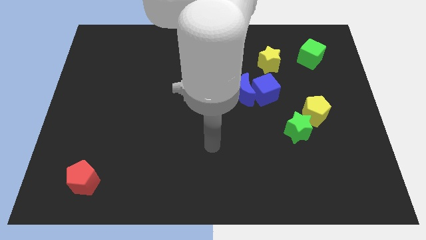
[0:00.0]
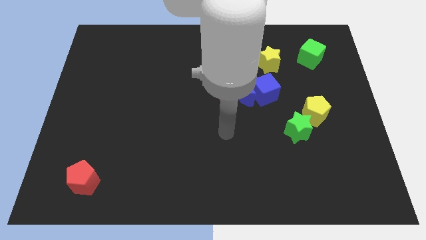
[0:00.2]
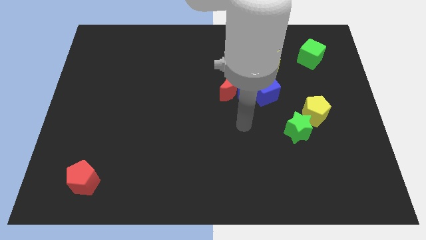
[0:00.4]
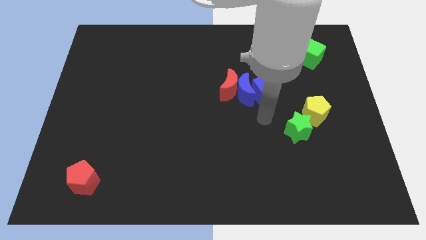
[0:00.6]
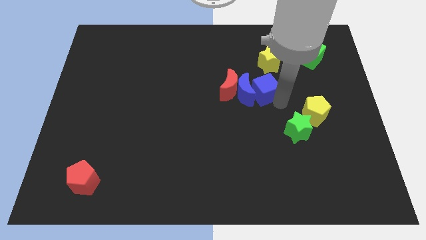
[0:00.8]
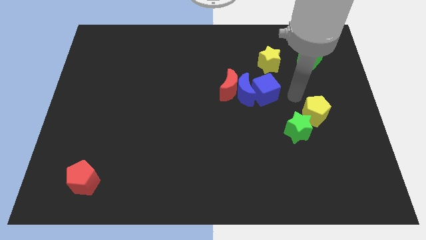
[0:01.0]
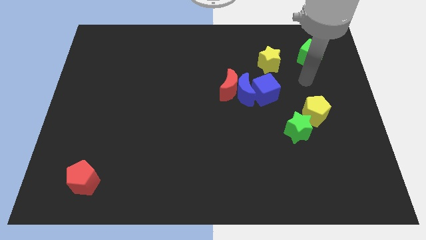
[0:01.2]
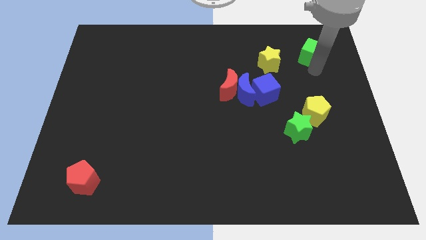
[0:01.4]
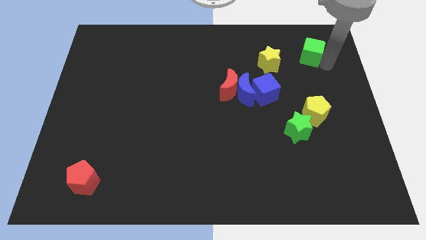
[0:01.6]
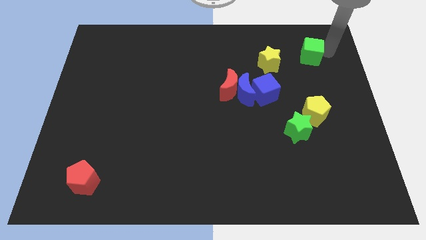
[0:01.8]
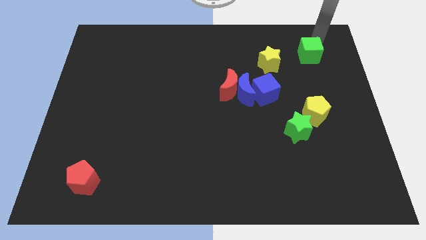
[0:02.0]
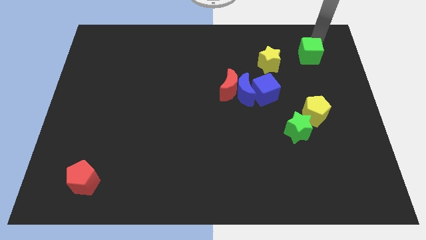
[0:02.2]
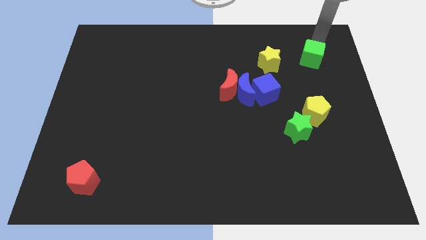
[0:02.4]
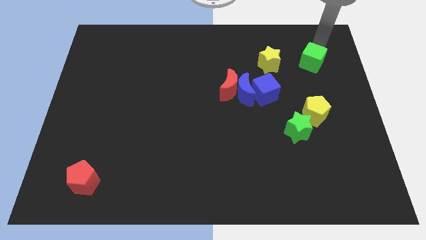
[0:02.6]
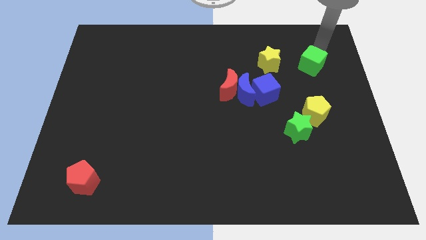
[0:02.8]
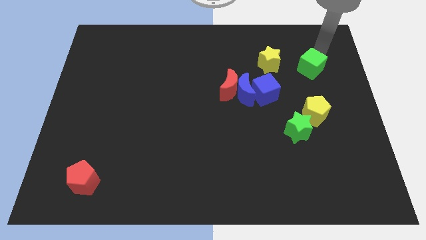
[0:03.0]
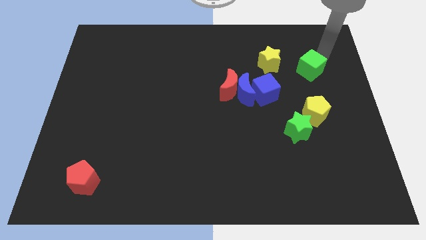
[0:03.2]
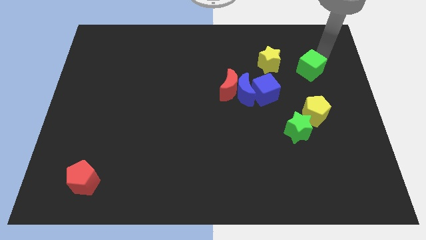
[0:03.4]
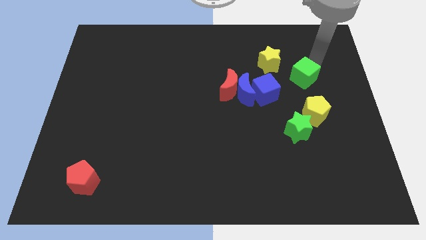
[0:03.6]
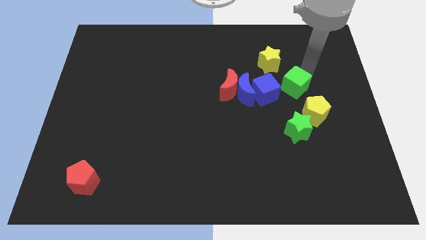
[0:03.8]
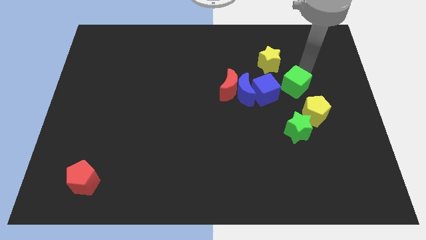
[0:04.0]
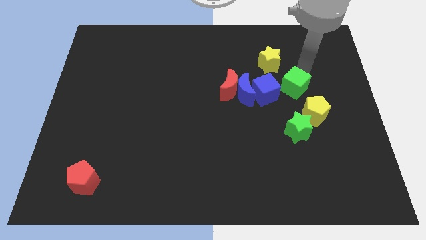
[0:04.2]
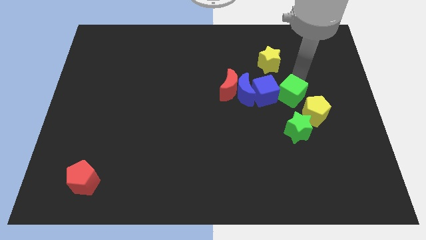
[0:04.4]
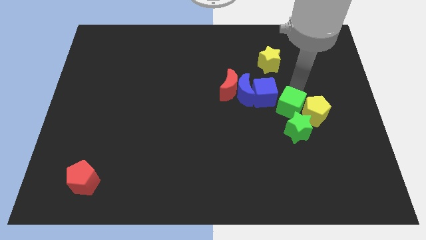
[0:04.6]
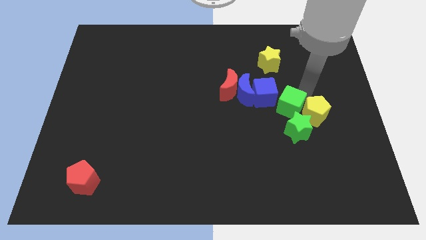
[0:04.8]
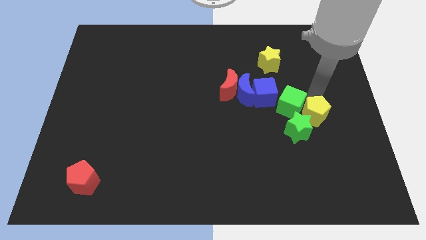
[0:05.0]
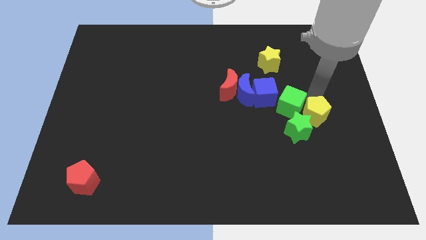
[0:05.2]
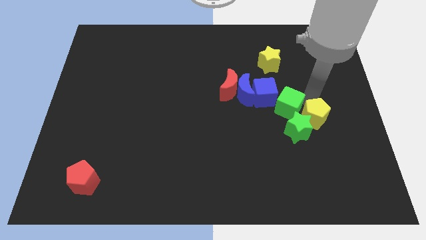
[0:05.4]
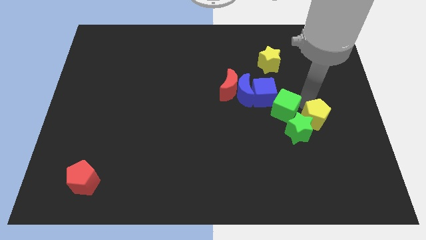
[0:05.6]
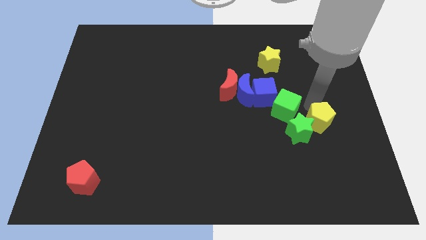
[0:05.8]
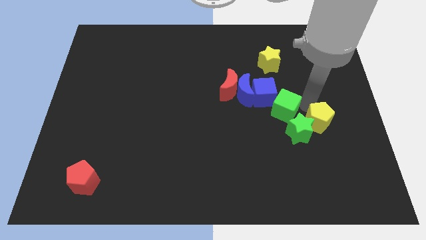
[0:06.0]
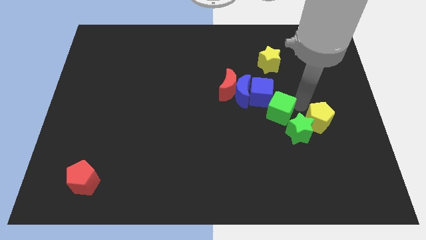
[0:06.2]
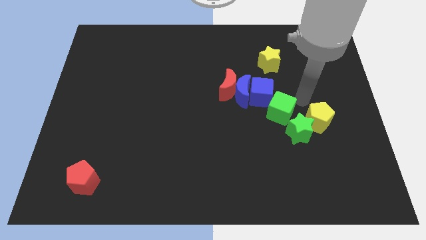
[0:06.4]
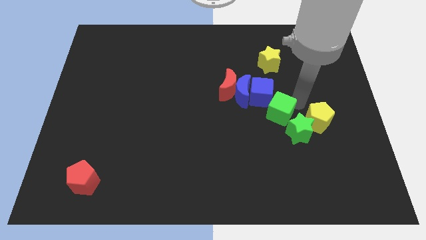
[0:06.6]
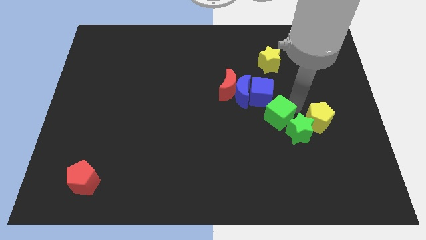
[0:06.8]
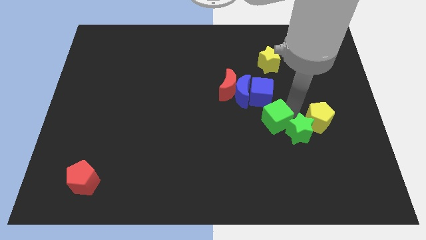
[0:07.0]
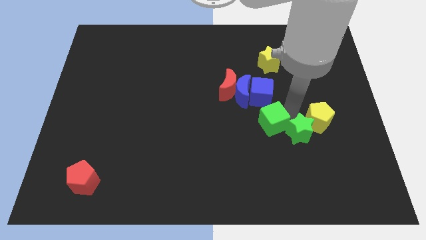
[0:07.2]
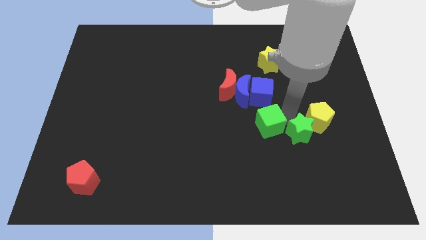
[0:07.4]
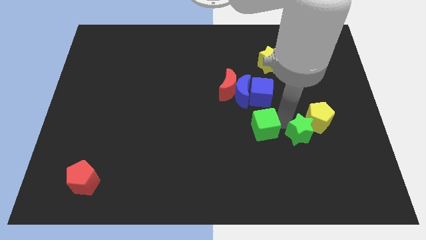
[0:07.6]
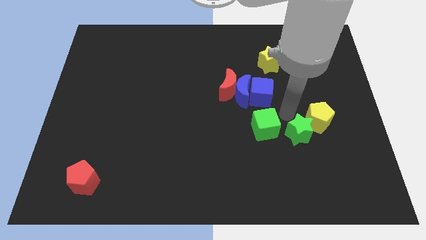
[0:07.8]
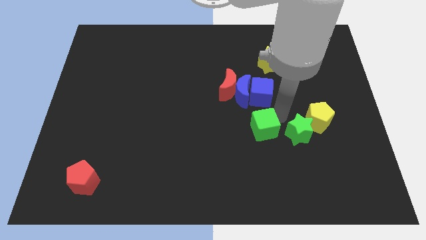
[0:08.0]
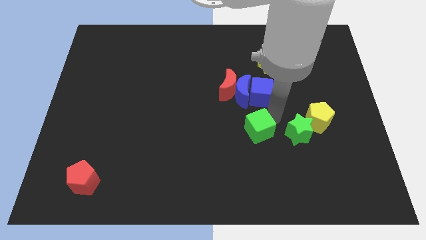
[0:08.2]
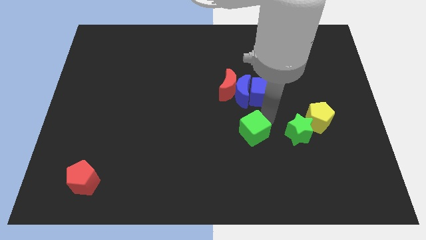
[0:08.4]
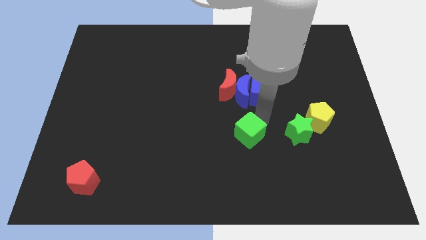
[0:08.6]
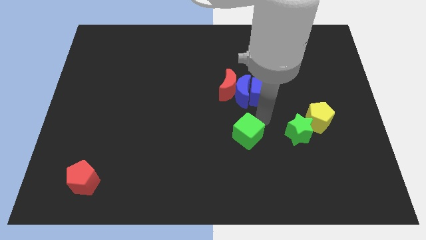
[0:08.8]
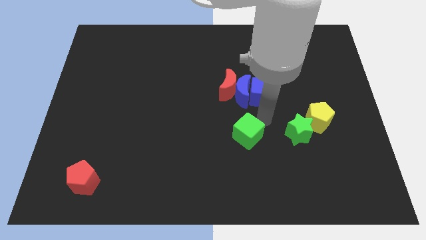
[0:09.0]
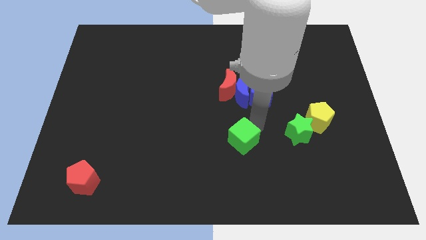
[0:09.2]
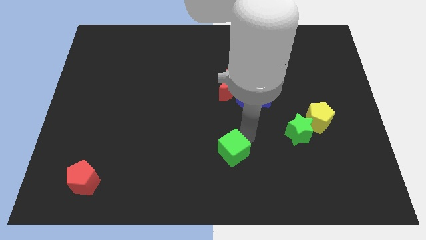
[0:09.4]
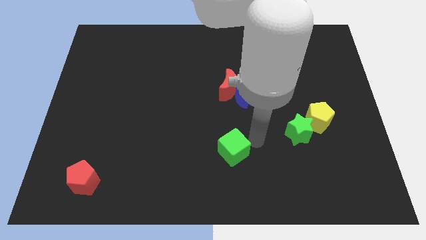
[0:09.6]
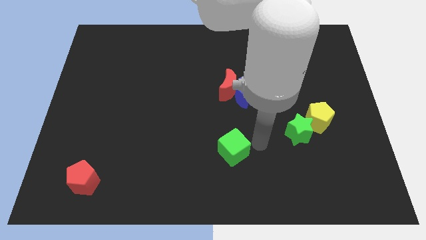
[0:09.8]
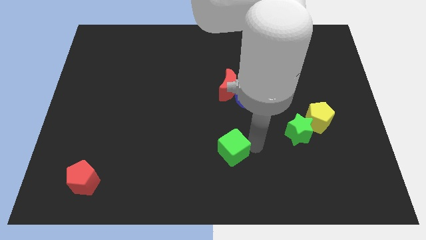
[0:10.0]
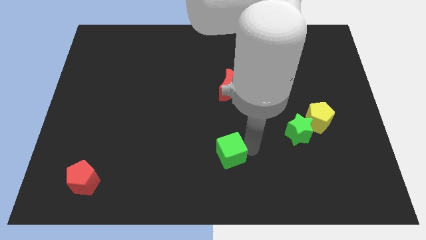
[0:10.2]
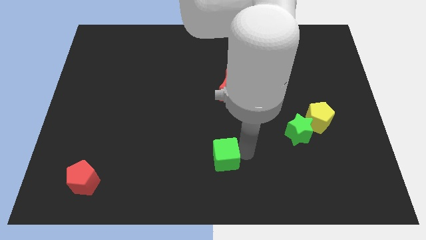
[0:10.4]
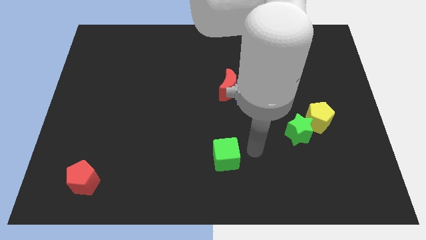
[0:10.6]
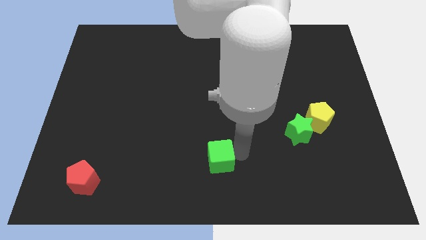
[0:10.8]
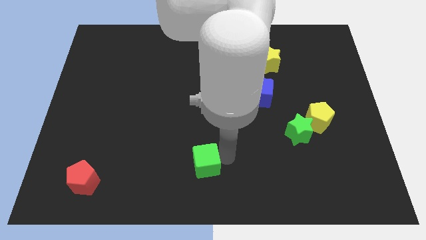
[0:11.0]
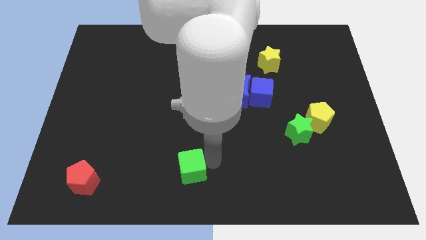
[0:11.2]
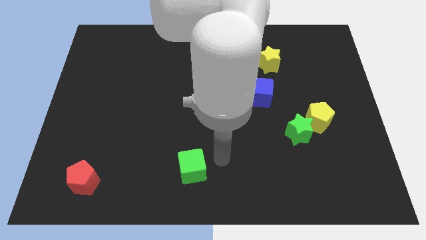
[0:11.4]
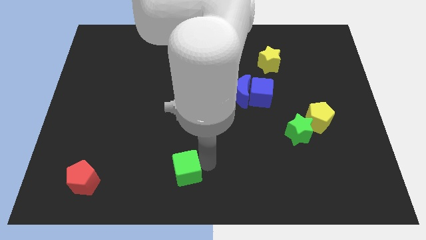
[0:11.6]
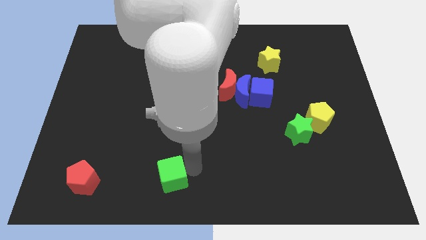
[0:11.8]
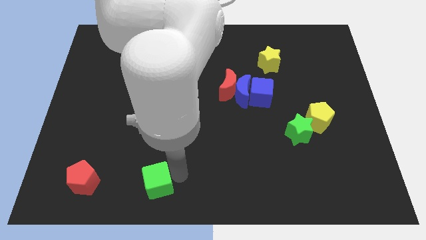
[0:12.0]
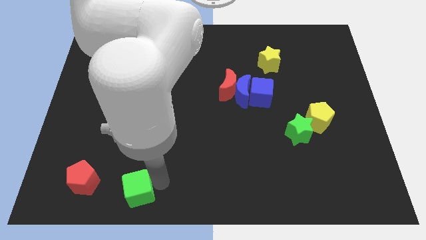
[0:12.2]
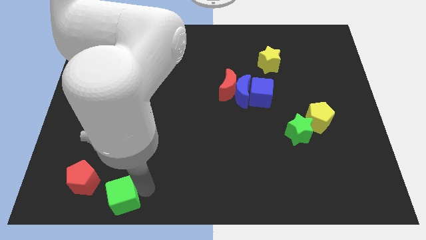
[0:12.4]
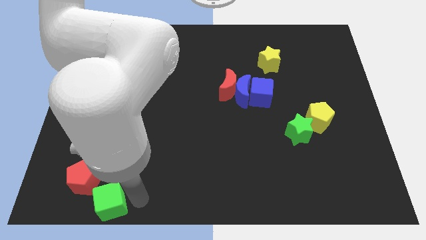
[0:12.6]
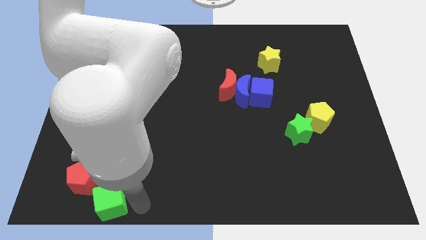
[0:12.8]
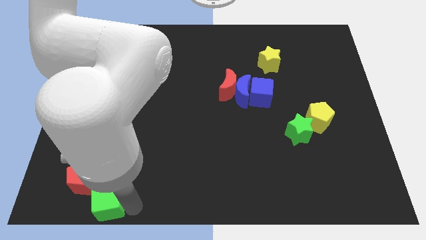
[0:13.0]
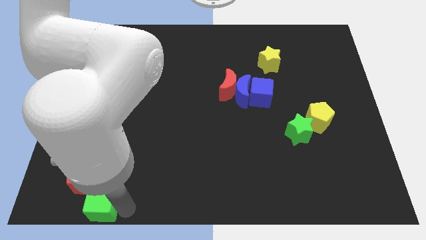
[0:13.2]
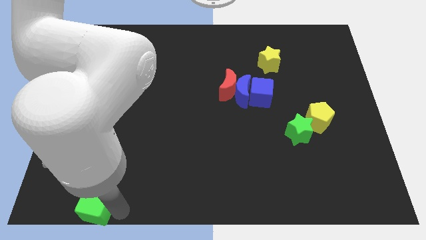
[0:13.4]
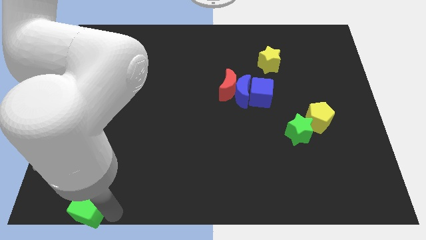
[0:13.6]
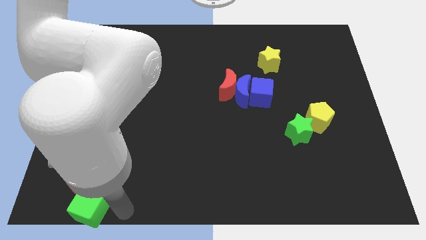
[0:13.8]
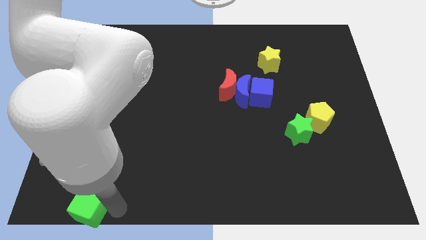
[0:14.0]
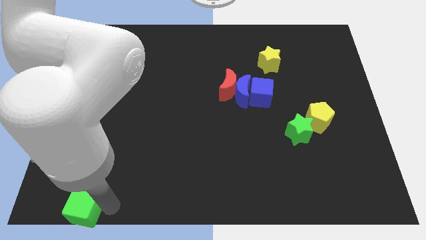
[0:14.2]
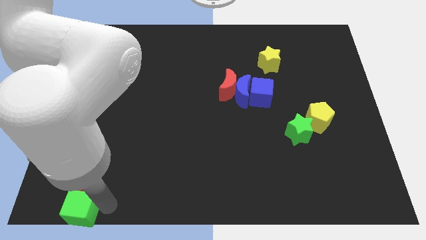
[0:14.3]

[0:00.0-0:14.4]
push the green cube to the bottom left of the board
